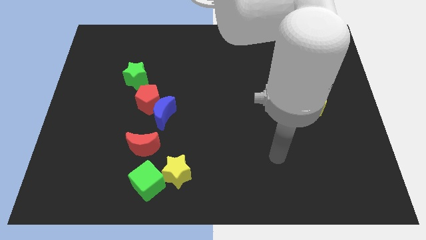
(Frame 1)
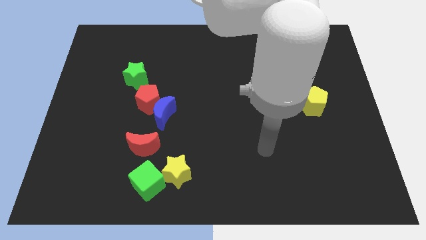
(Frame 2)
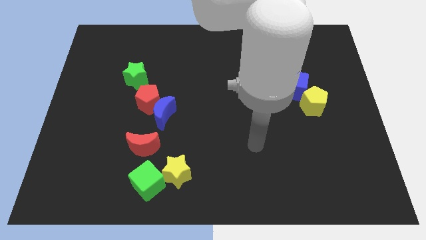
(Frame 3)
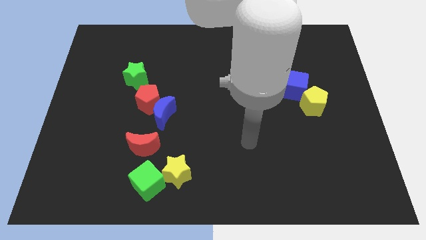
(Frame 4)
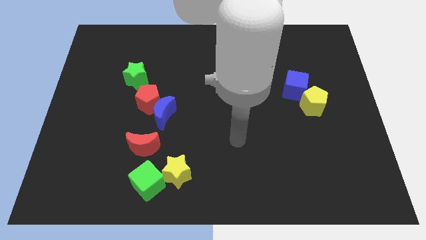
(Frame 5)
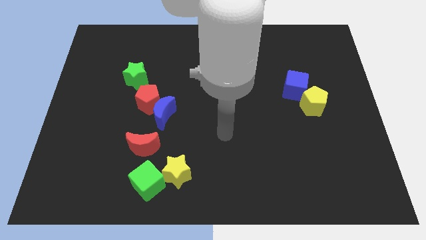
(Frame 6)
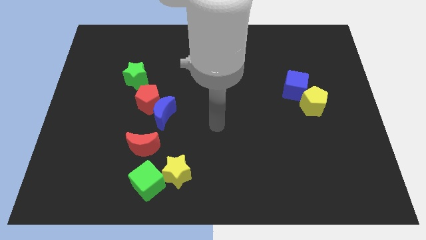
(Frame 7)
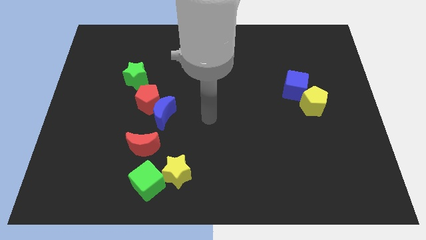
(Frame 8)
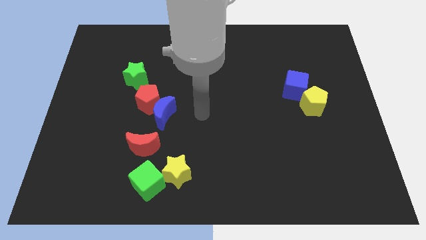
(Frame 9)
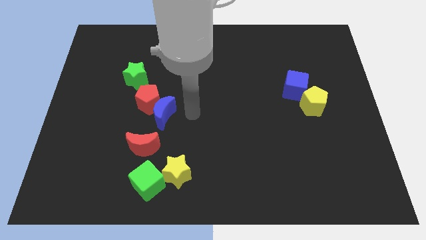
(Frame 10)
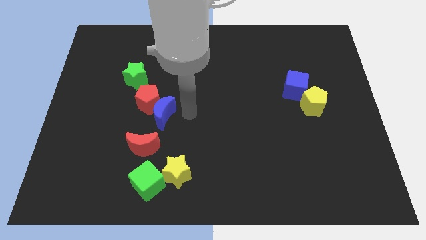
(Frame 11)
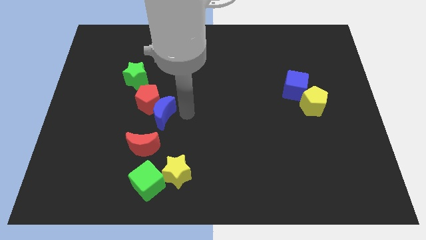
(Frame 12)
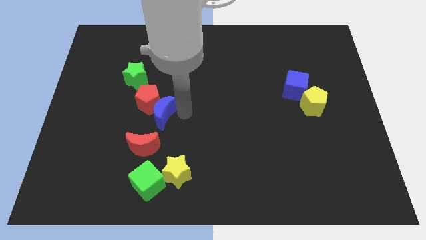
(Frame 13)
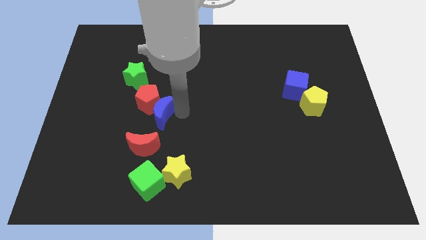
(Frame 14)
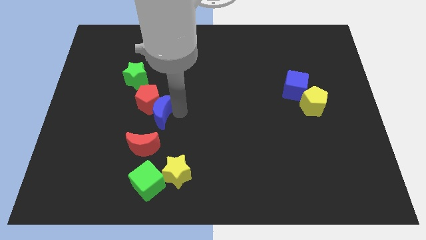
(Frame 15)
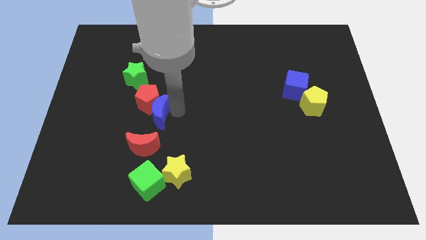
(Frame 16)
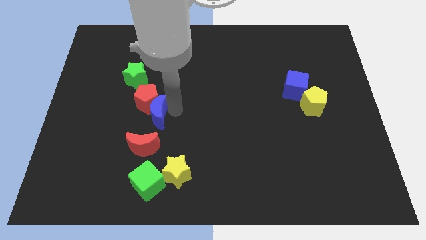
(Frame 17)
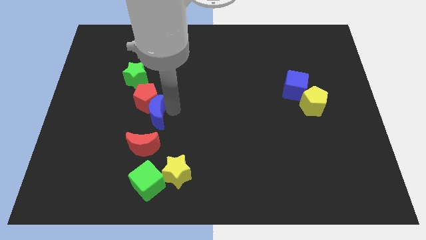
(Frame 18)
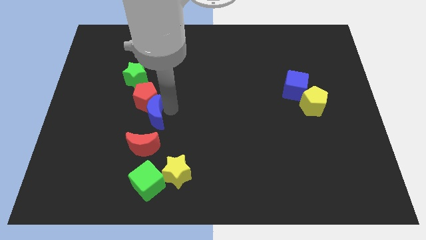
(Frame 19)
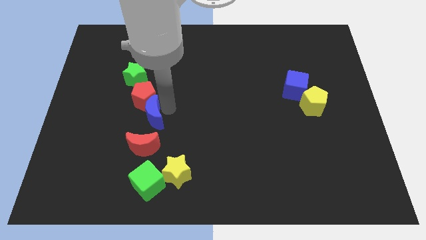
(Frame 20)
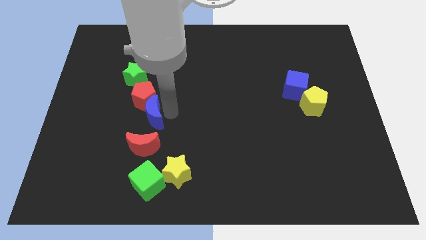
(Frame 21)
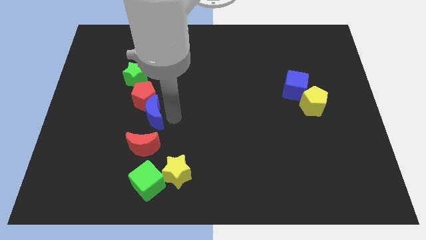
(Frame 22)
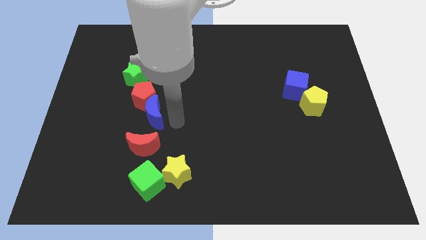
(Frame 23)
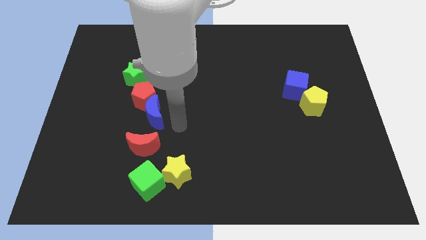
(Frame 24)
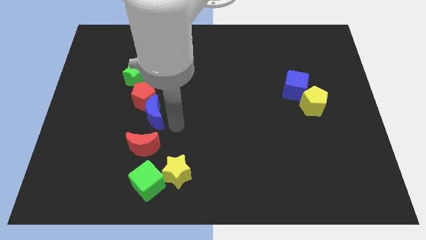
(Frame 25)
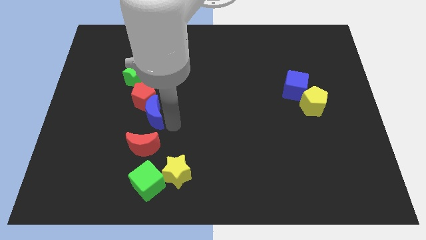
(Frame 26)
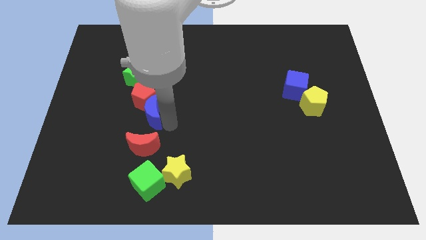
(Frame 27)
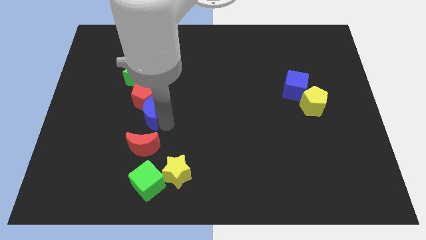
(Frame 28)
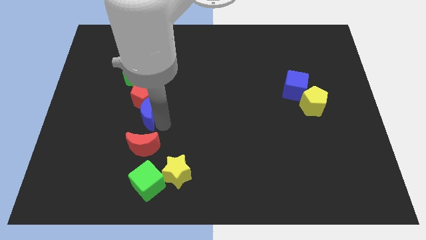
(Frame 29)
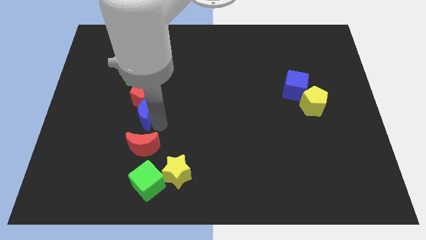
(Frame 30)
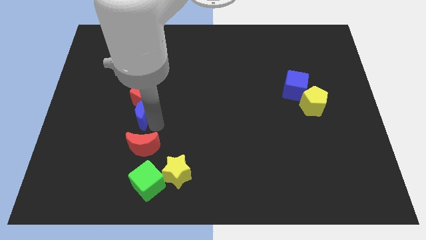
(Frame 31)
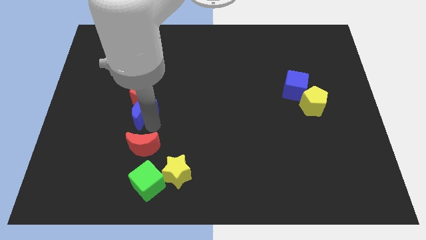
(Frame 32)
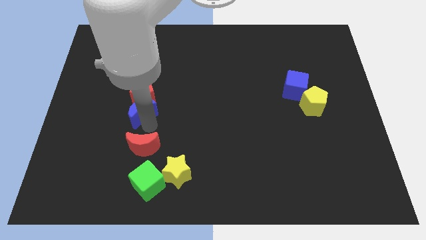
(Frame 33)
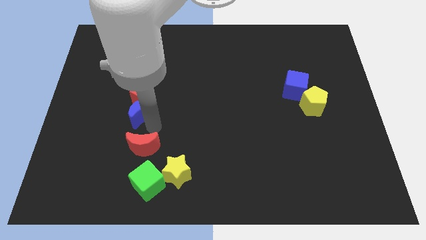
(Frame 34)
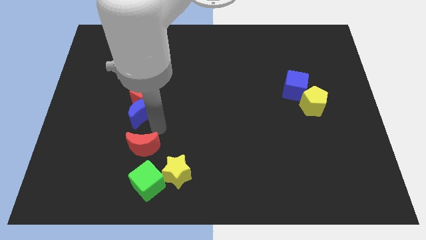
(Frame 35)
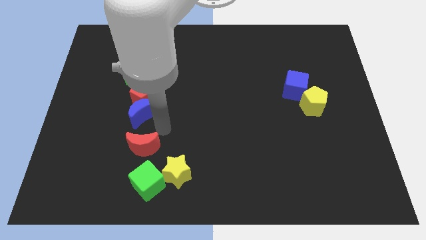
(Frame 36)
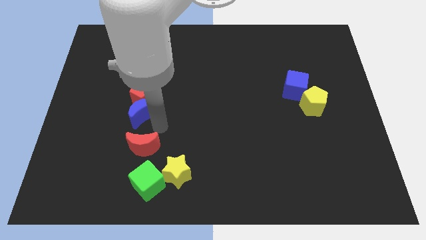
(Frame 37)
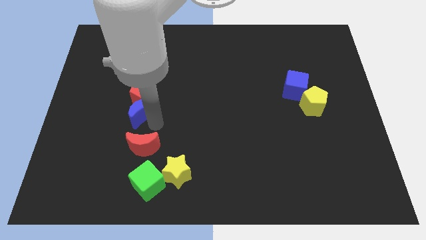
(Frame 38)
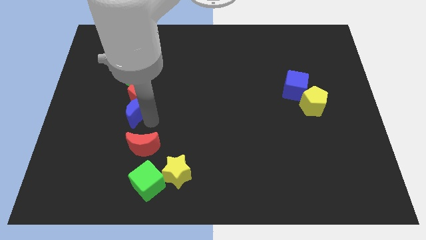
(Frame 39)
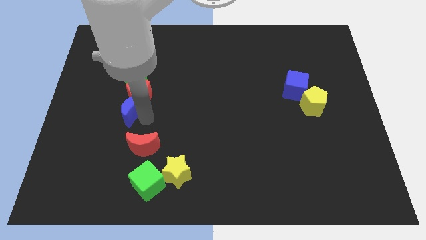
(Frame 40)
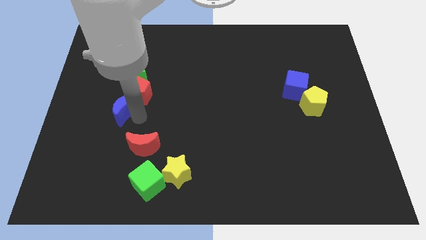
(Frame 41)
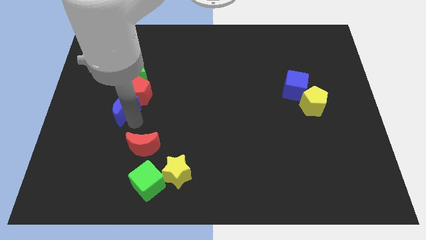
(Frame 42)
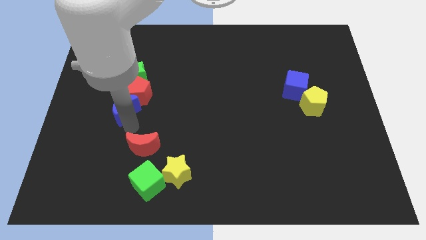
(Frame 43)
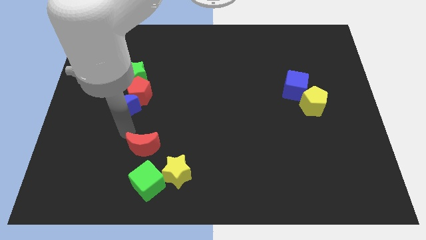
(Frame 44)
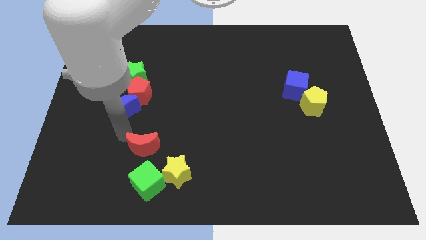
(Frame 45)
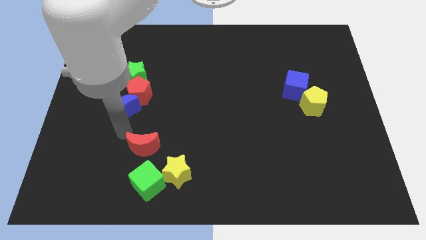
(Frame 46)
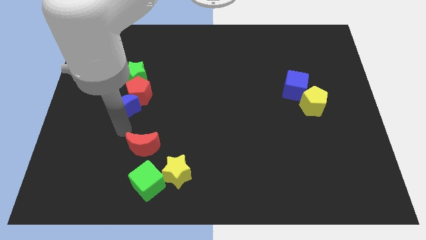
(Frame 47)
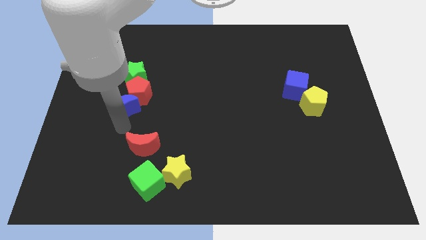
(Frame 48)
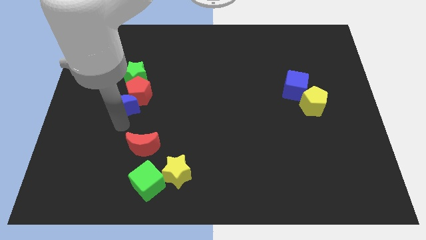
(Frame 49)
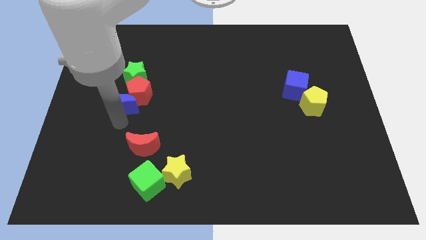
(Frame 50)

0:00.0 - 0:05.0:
push the blue moon a bit upwards and left diagonally

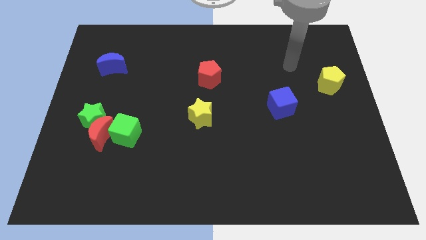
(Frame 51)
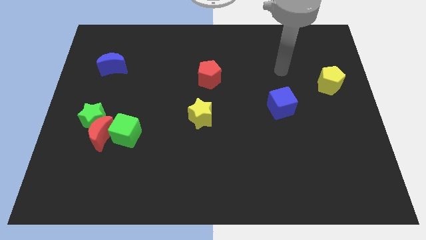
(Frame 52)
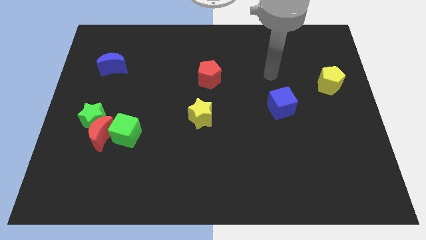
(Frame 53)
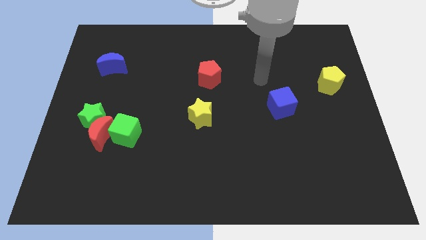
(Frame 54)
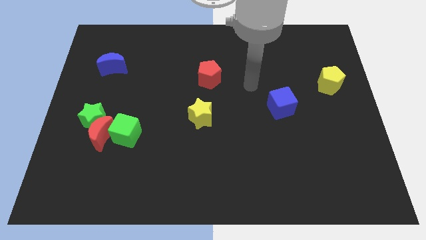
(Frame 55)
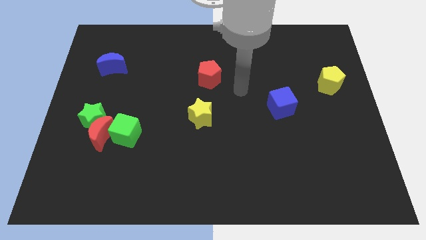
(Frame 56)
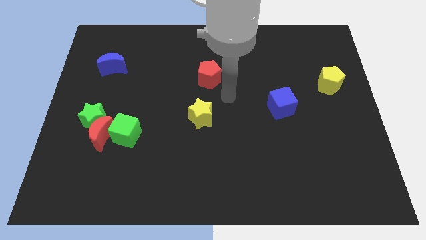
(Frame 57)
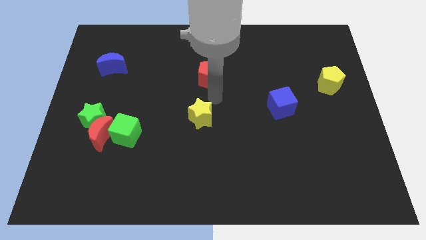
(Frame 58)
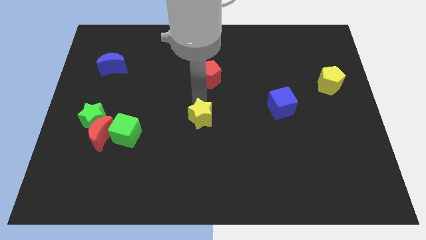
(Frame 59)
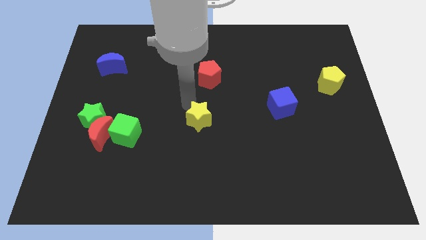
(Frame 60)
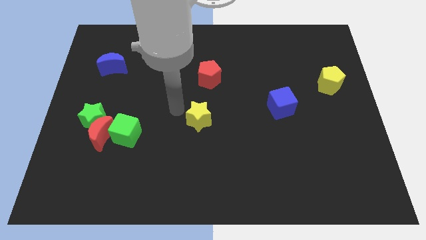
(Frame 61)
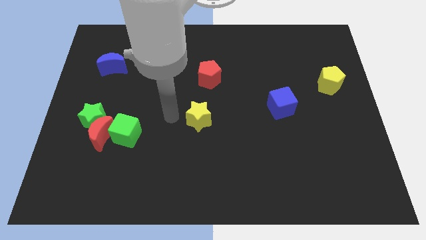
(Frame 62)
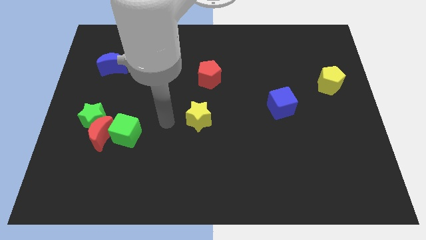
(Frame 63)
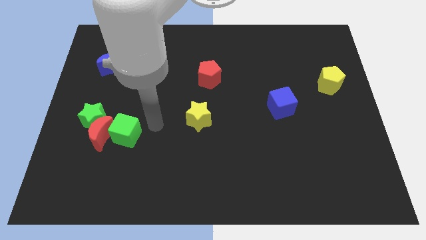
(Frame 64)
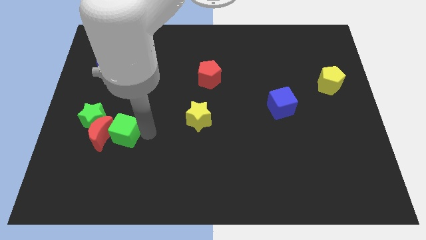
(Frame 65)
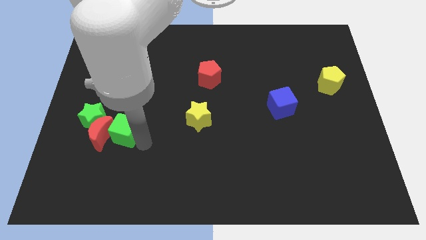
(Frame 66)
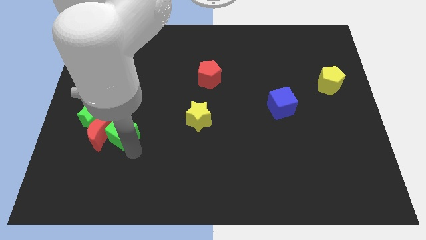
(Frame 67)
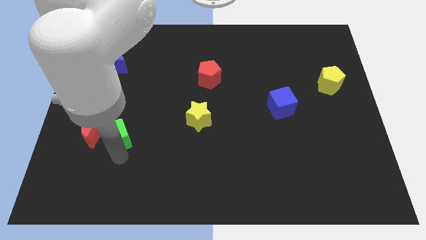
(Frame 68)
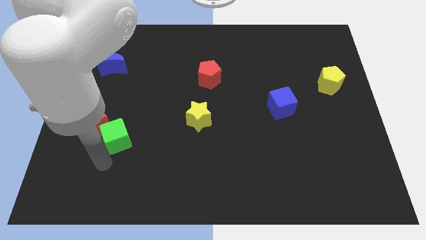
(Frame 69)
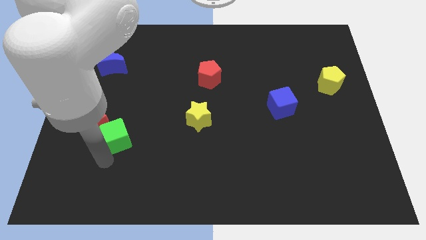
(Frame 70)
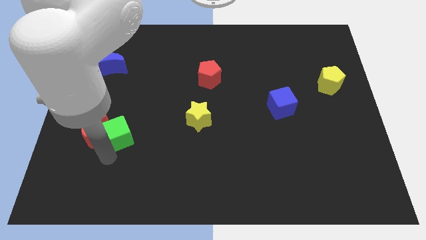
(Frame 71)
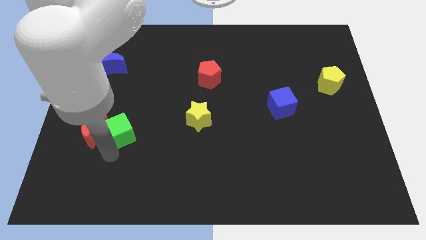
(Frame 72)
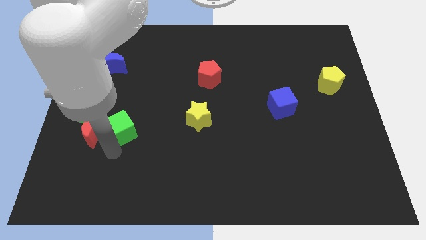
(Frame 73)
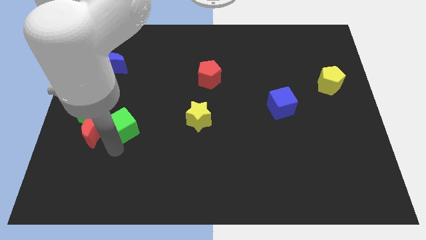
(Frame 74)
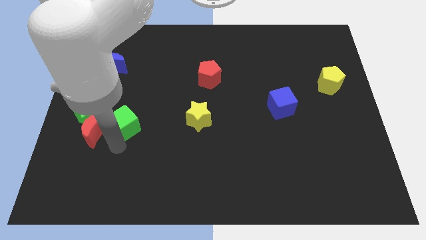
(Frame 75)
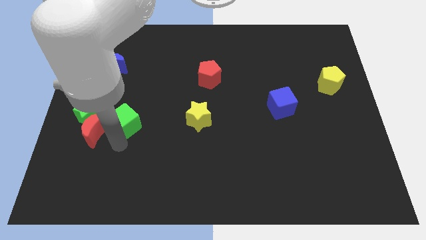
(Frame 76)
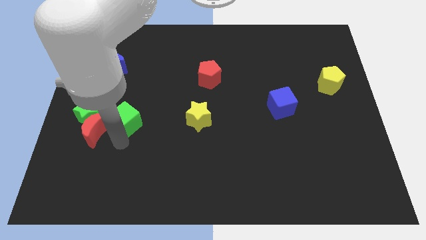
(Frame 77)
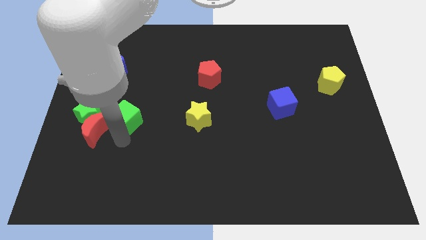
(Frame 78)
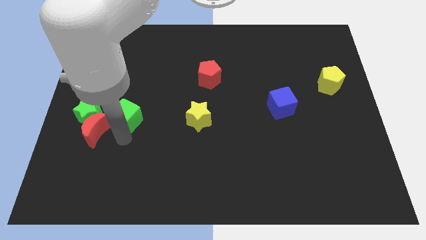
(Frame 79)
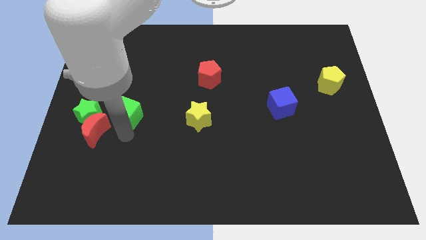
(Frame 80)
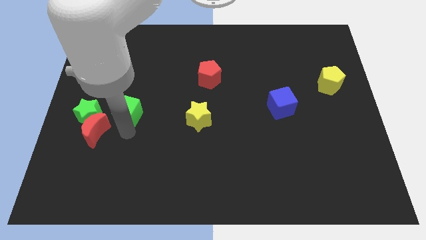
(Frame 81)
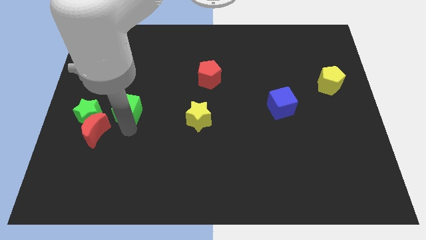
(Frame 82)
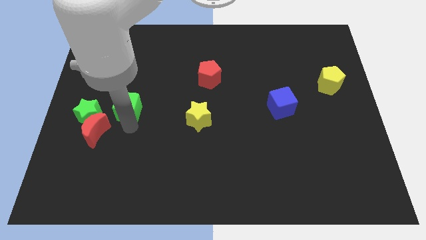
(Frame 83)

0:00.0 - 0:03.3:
move the green cube slightly up

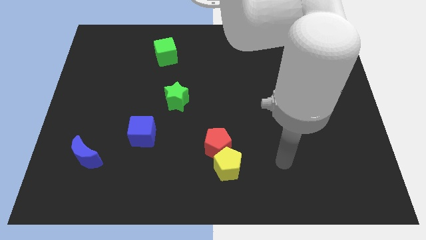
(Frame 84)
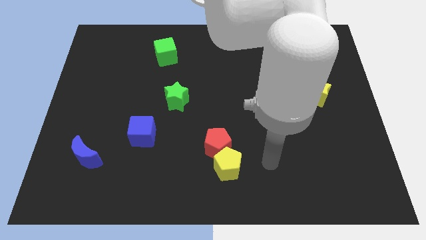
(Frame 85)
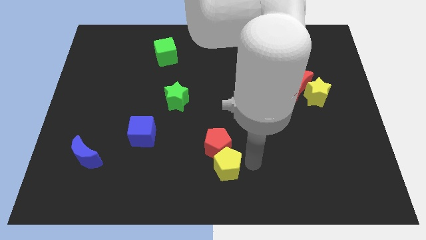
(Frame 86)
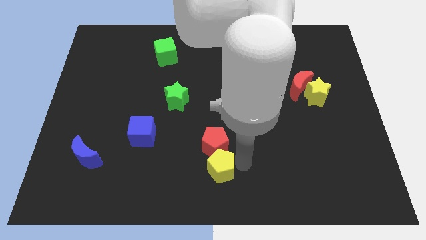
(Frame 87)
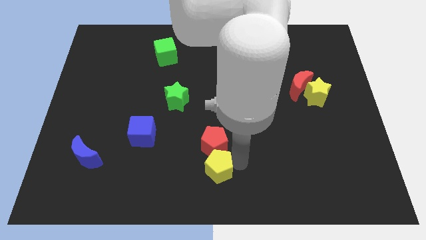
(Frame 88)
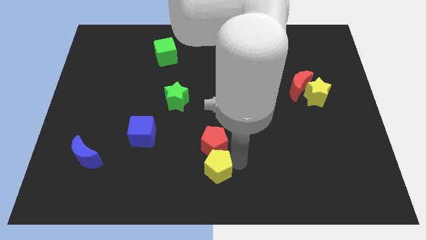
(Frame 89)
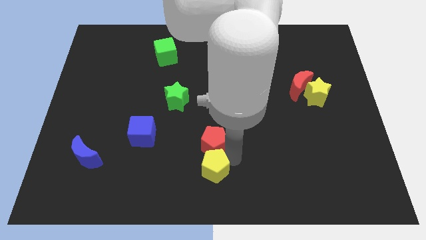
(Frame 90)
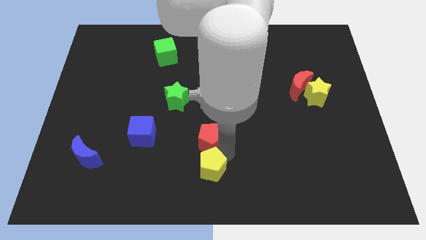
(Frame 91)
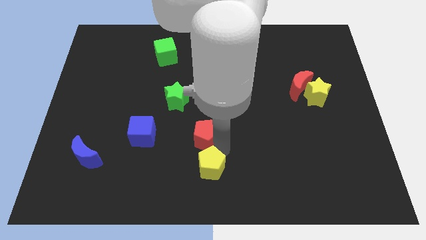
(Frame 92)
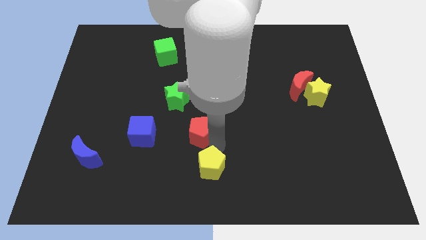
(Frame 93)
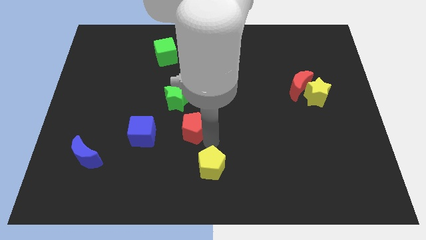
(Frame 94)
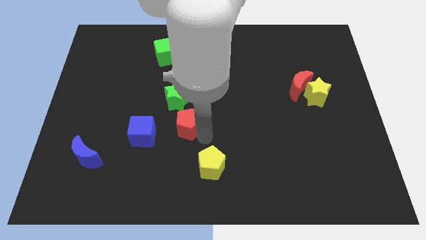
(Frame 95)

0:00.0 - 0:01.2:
slightly move the red pentagon upwards and left diagonally
